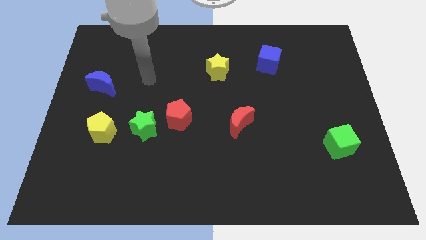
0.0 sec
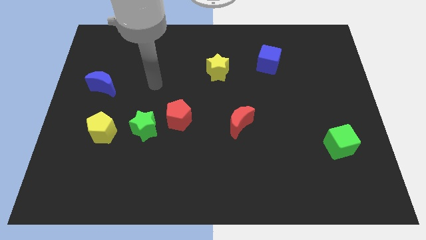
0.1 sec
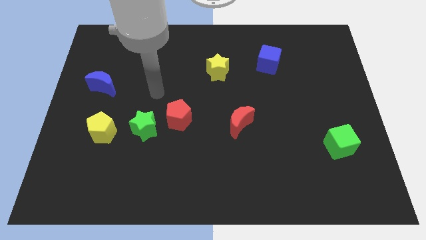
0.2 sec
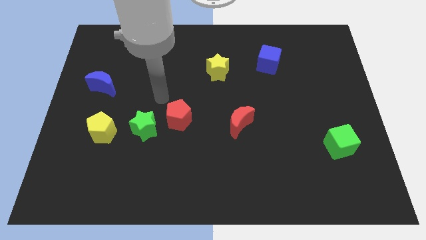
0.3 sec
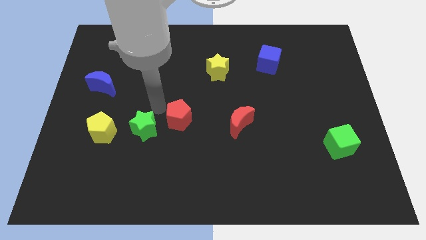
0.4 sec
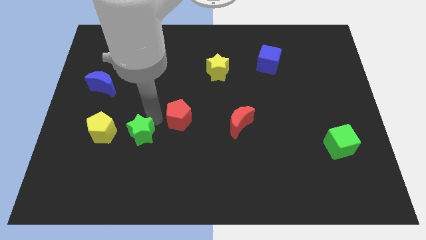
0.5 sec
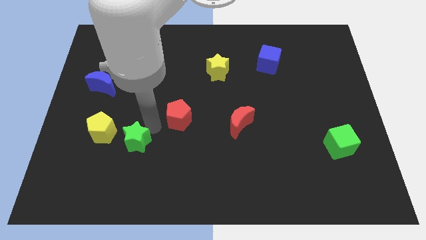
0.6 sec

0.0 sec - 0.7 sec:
move the red pentagon away from the green star

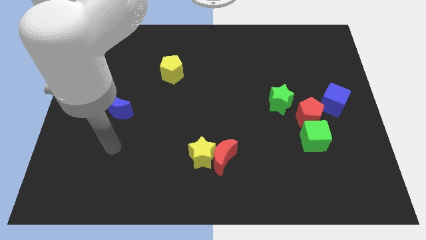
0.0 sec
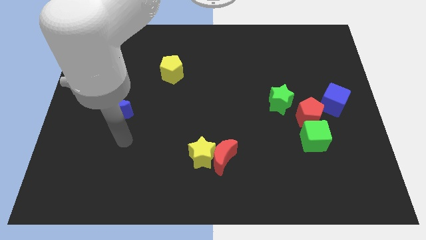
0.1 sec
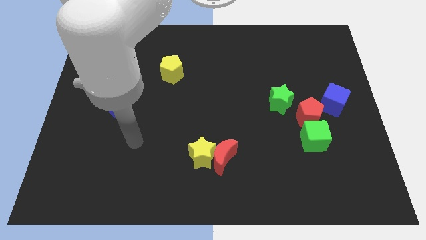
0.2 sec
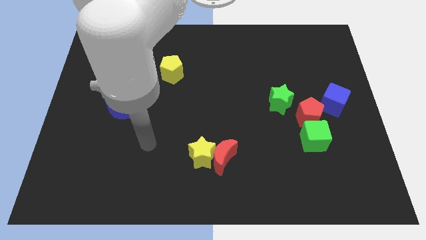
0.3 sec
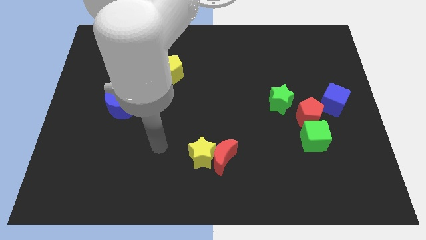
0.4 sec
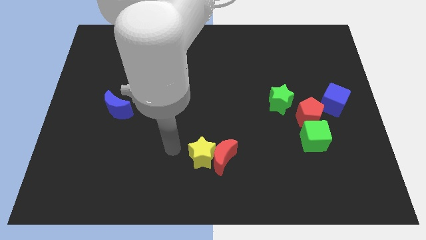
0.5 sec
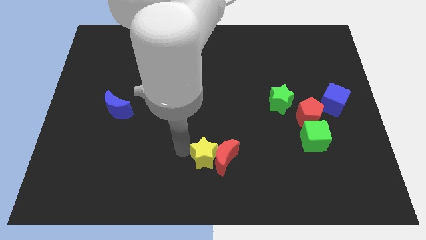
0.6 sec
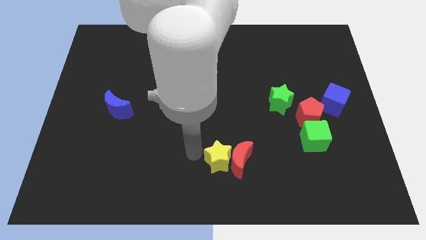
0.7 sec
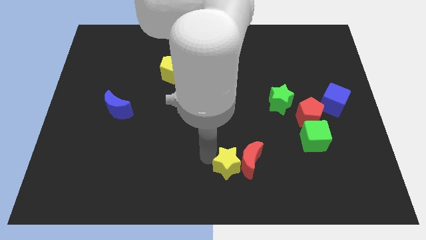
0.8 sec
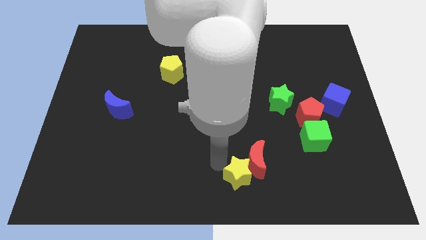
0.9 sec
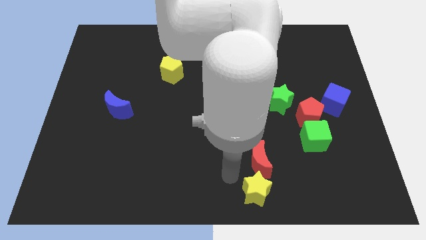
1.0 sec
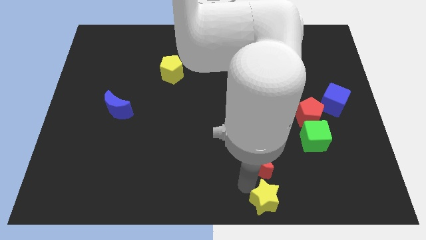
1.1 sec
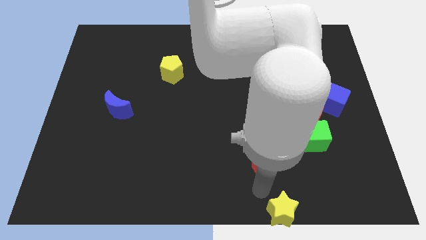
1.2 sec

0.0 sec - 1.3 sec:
separate the red moon from the yellow star

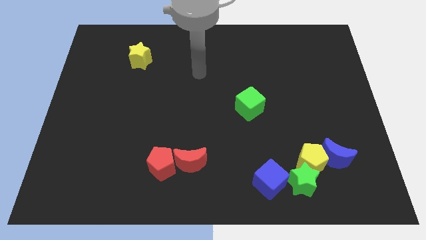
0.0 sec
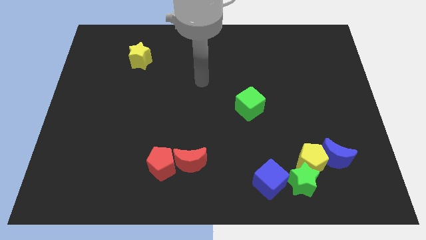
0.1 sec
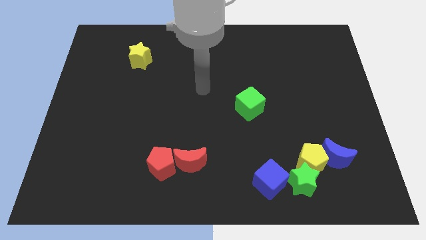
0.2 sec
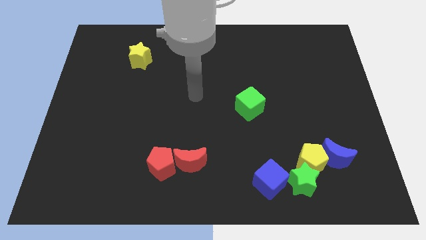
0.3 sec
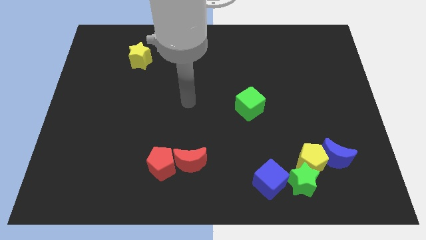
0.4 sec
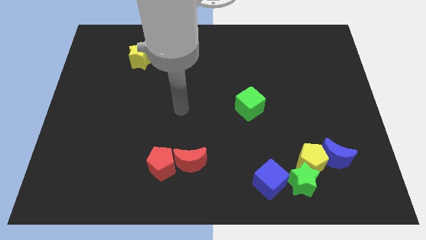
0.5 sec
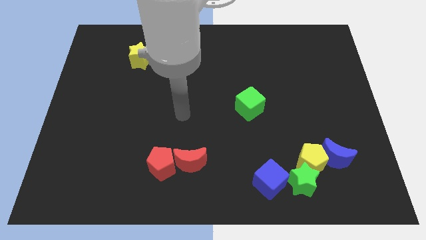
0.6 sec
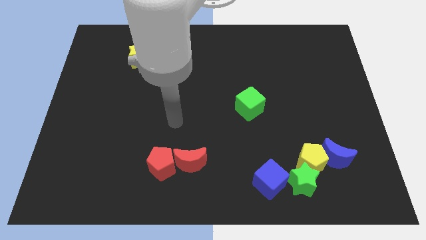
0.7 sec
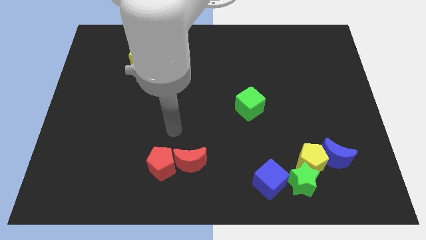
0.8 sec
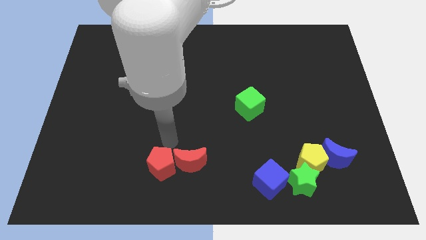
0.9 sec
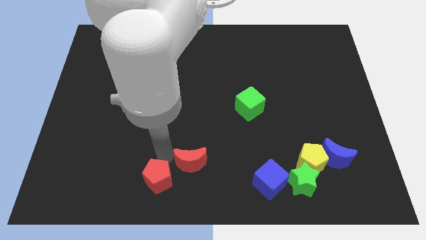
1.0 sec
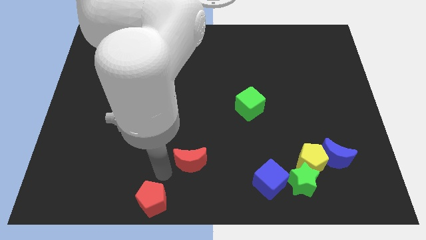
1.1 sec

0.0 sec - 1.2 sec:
pull the red moon apart from the red pentagon

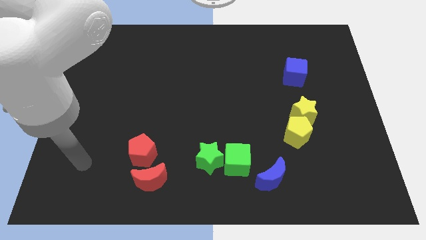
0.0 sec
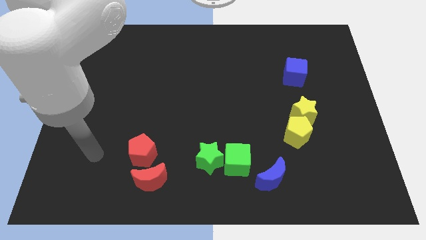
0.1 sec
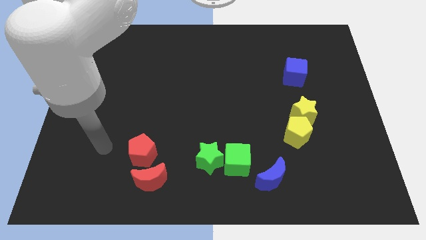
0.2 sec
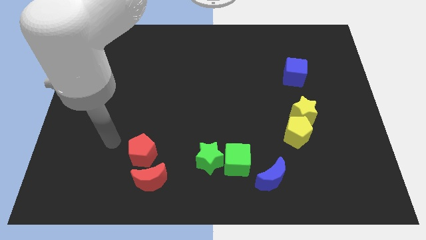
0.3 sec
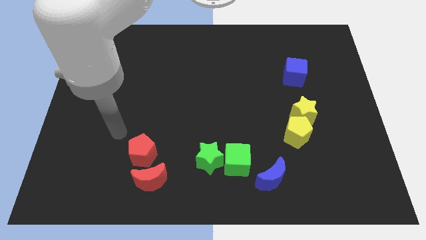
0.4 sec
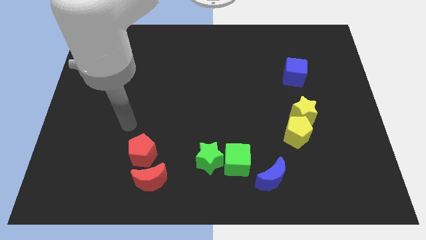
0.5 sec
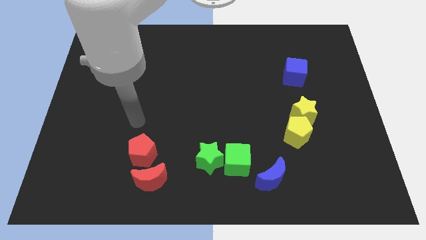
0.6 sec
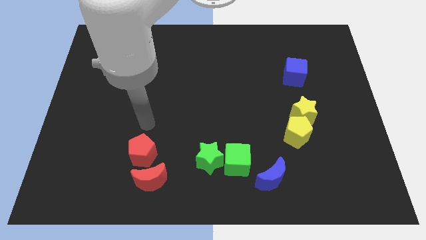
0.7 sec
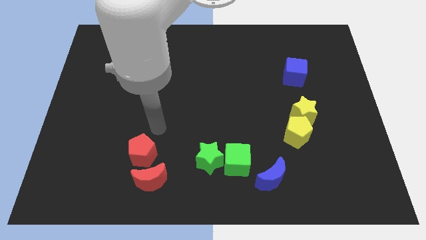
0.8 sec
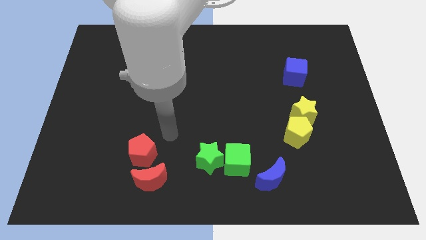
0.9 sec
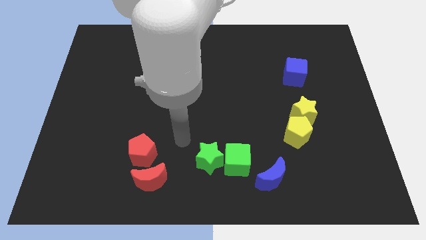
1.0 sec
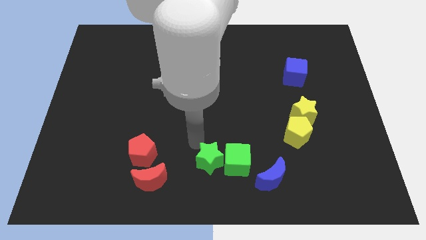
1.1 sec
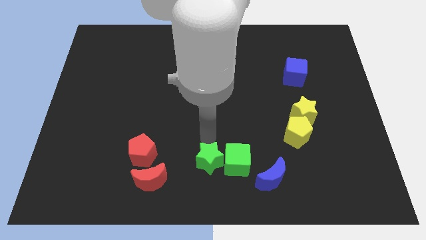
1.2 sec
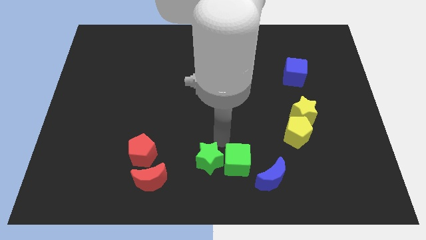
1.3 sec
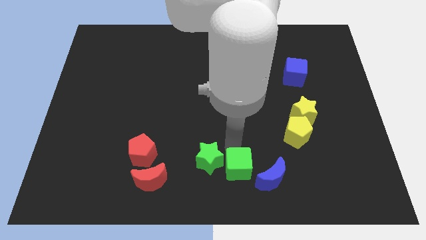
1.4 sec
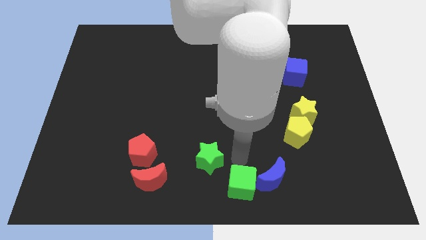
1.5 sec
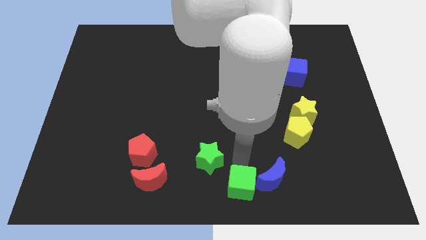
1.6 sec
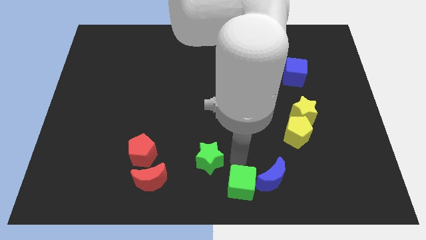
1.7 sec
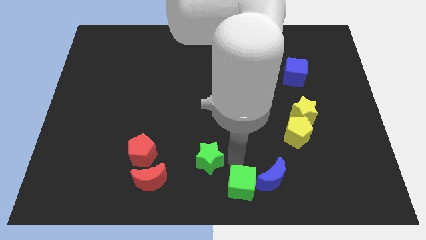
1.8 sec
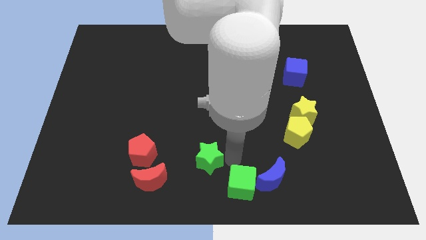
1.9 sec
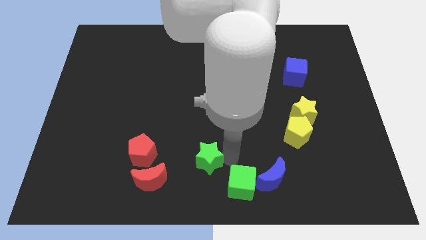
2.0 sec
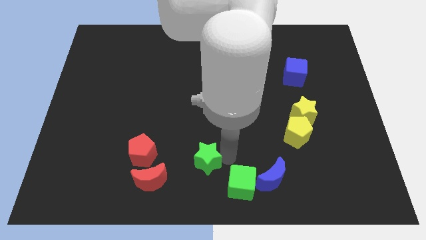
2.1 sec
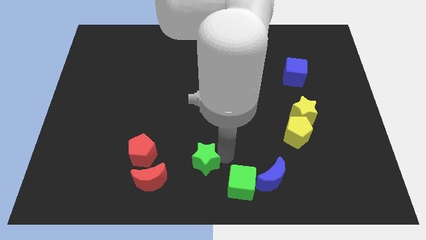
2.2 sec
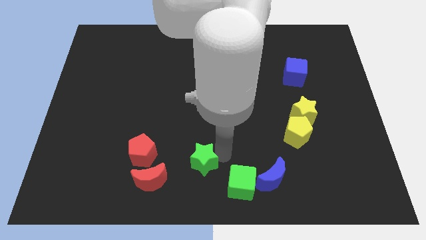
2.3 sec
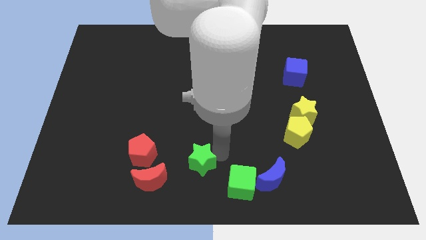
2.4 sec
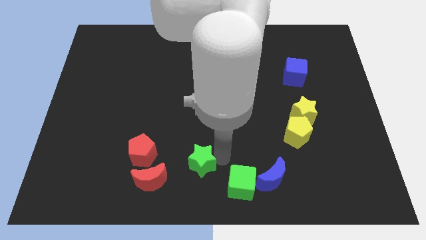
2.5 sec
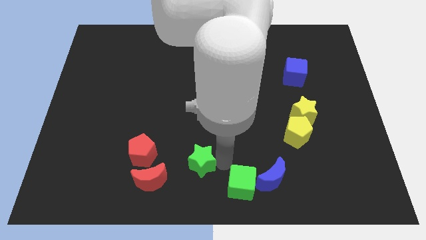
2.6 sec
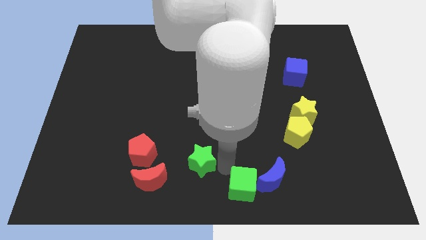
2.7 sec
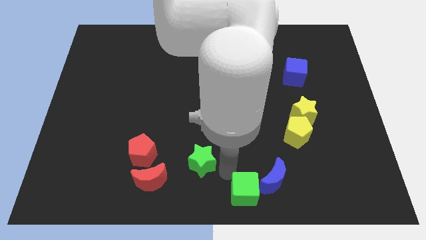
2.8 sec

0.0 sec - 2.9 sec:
pull the green star apart from the green cube

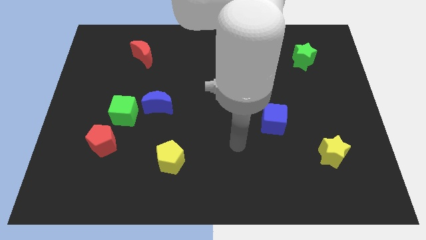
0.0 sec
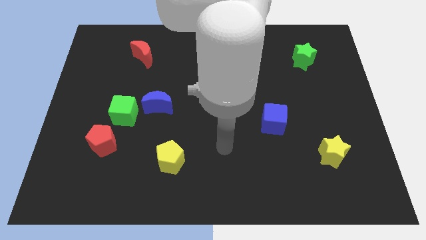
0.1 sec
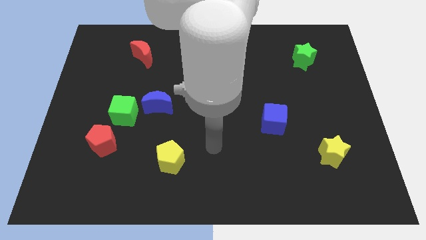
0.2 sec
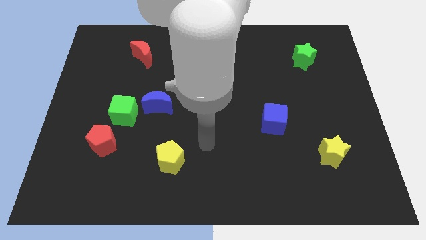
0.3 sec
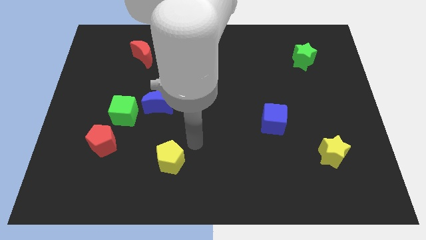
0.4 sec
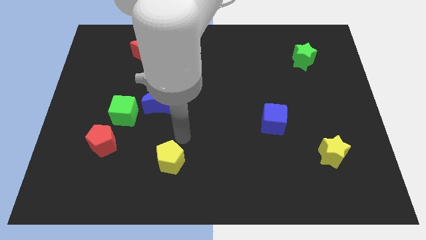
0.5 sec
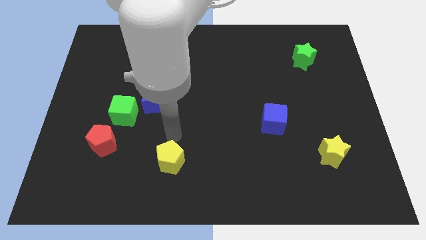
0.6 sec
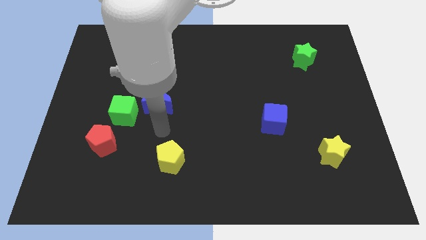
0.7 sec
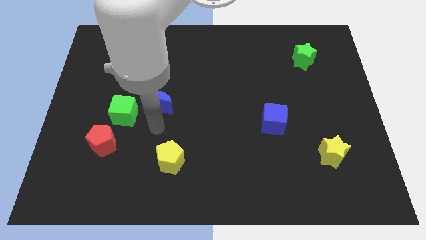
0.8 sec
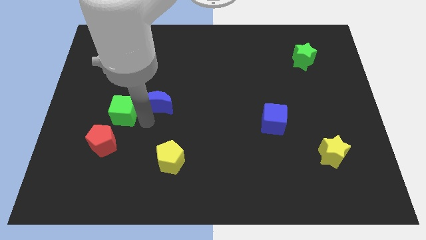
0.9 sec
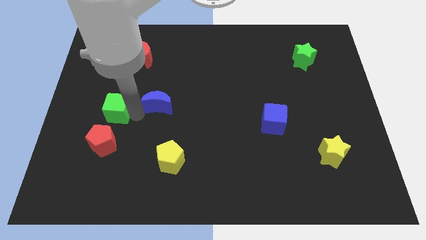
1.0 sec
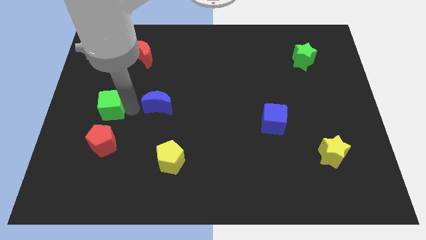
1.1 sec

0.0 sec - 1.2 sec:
pull the blue moon apart from the green cube

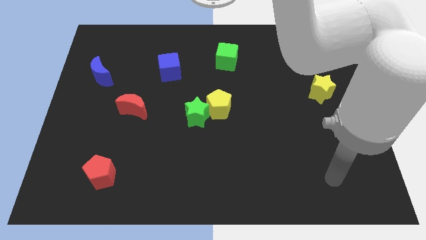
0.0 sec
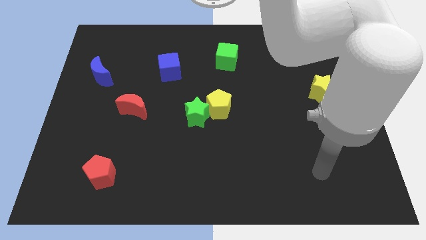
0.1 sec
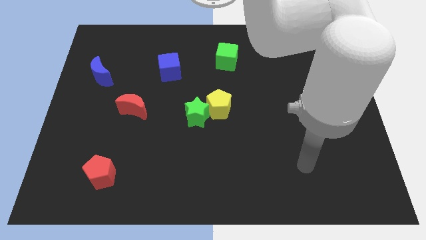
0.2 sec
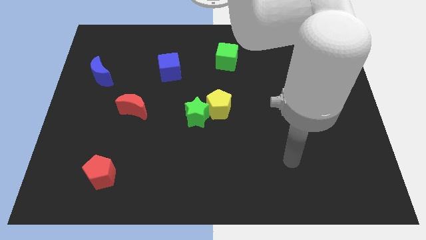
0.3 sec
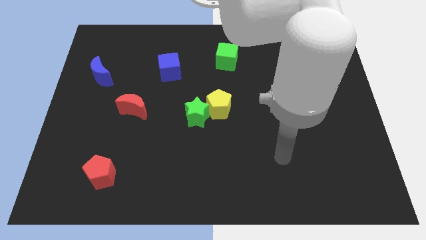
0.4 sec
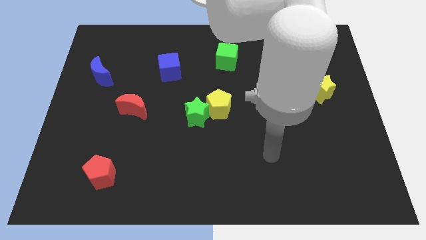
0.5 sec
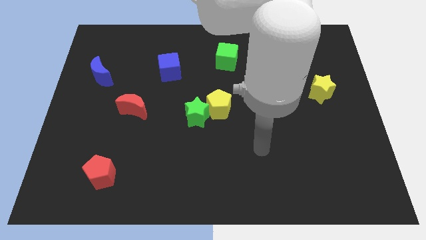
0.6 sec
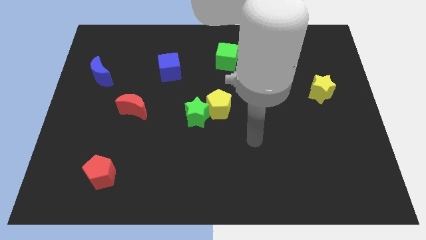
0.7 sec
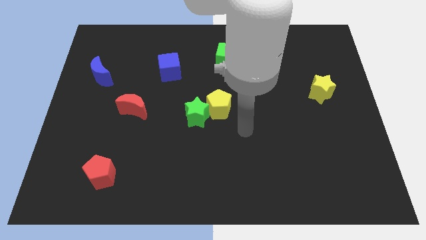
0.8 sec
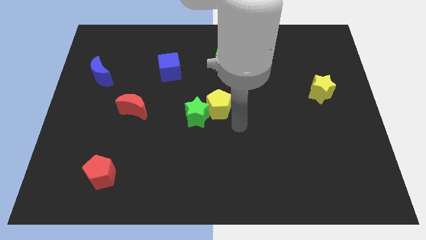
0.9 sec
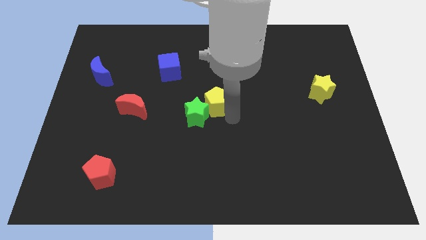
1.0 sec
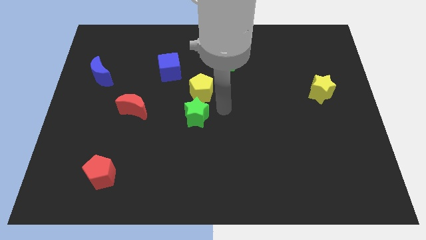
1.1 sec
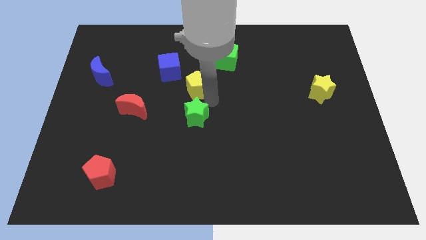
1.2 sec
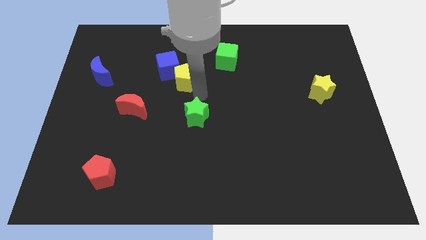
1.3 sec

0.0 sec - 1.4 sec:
pull the green star apart from the yellow pentagon

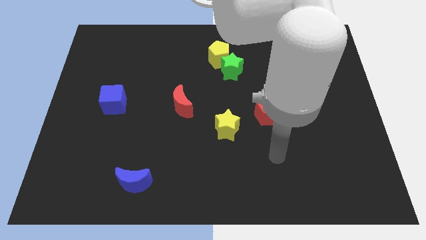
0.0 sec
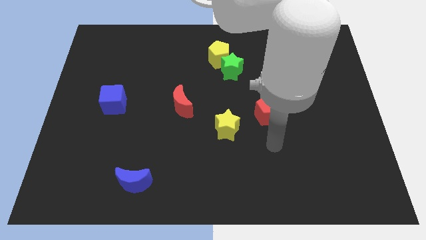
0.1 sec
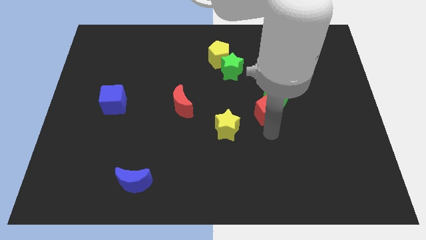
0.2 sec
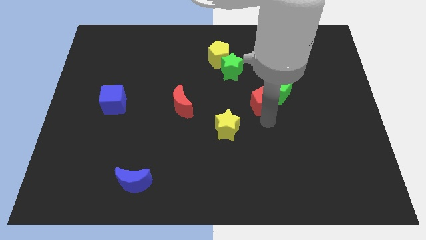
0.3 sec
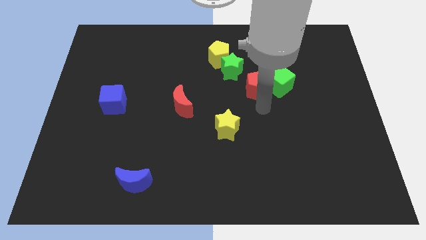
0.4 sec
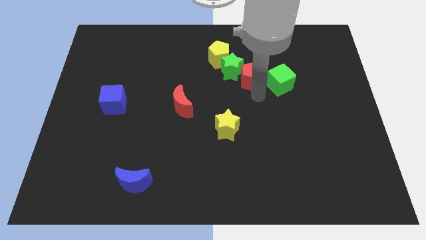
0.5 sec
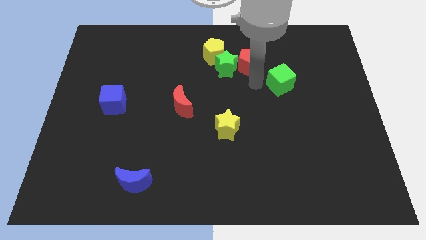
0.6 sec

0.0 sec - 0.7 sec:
move the green cube away from the red pentagon
